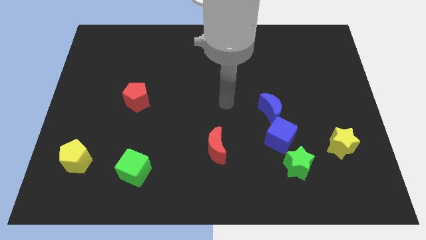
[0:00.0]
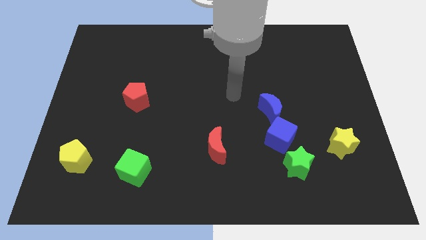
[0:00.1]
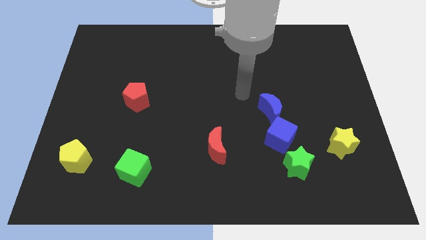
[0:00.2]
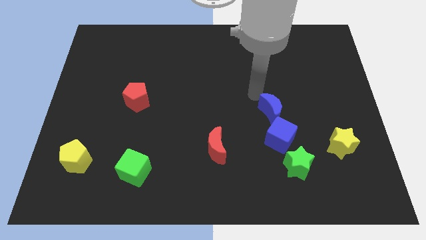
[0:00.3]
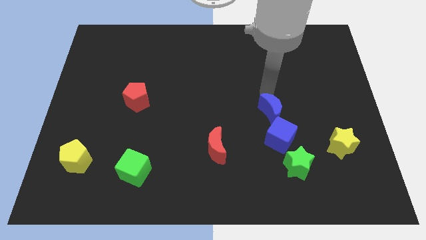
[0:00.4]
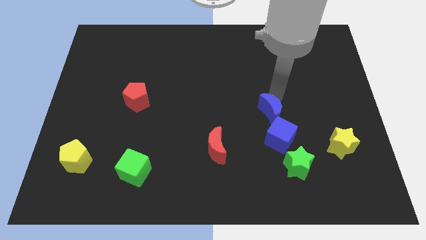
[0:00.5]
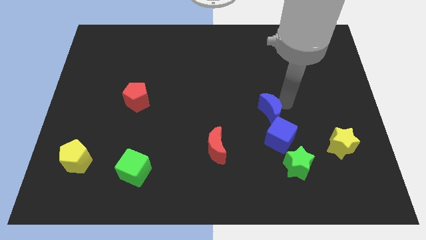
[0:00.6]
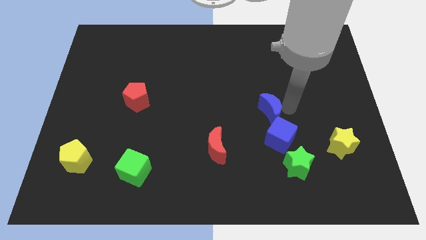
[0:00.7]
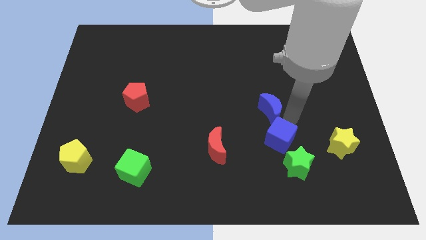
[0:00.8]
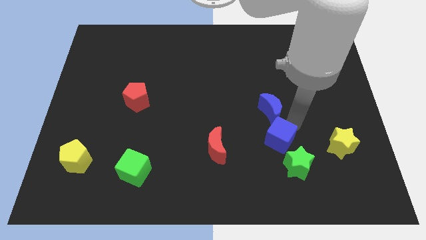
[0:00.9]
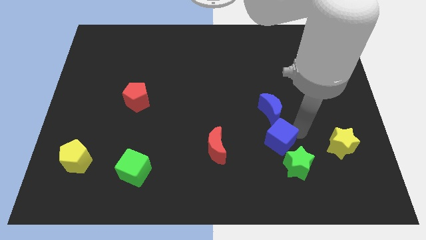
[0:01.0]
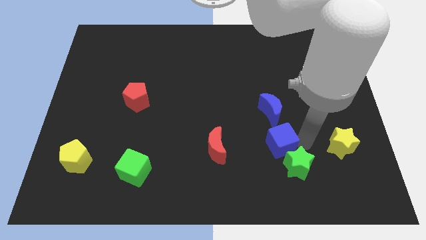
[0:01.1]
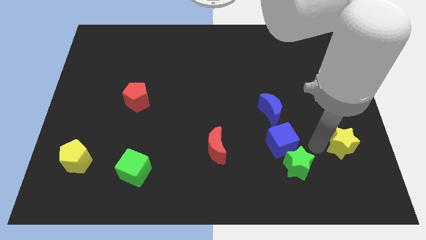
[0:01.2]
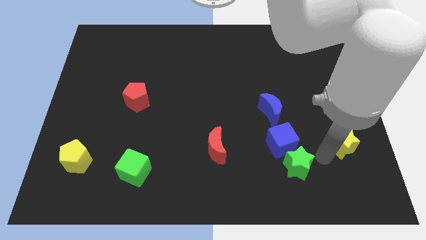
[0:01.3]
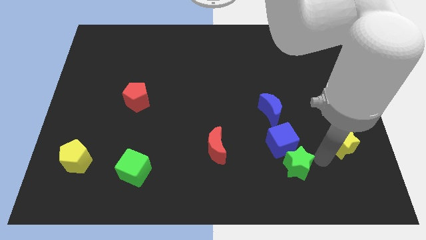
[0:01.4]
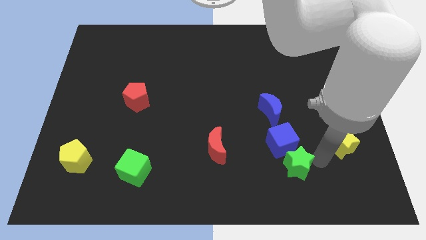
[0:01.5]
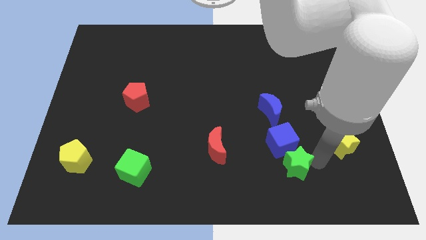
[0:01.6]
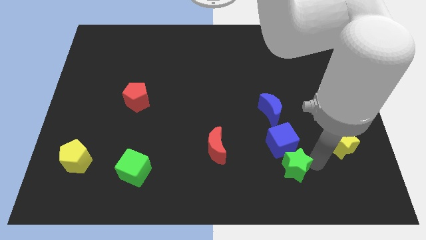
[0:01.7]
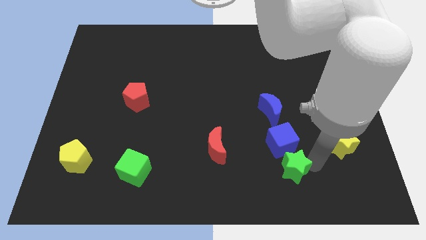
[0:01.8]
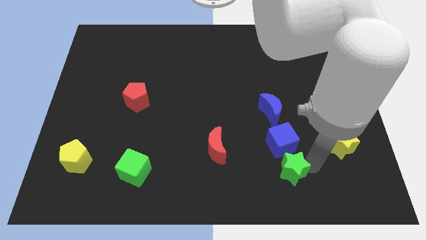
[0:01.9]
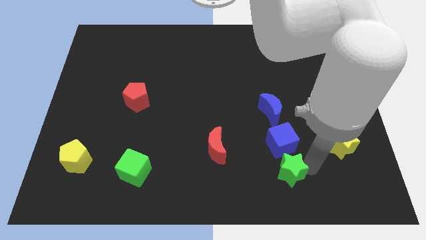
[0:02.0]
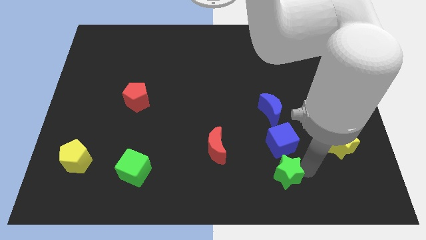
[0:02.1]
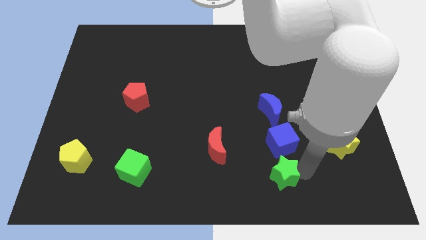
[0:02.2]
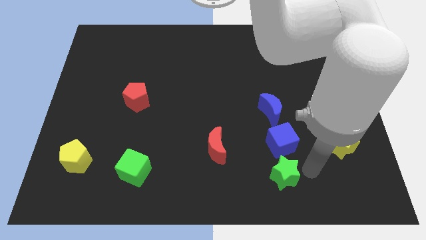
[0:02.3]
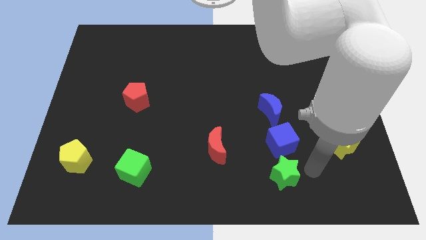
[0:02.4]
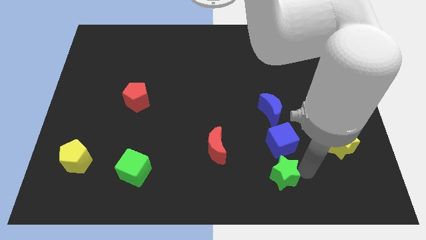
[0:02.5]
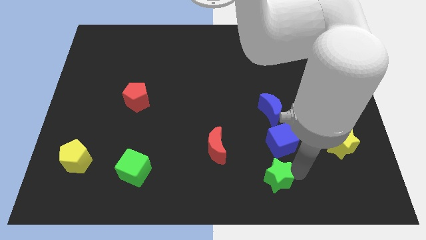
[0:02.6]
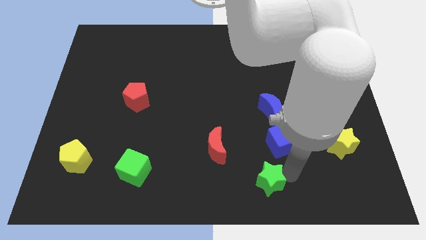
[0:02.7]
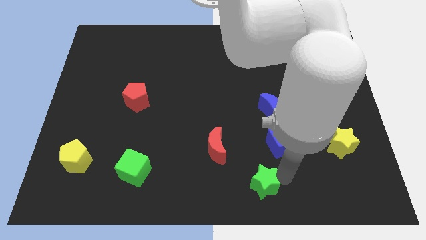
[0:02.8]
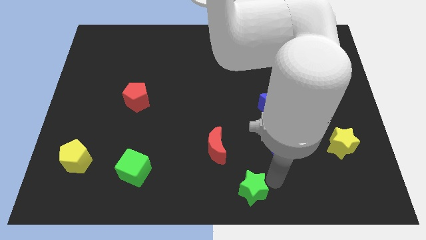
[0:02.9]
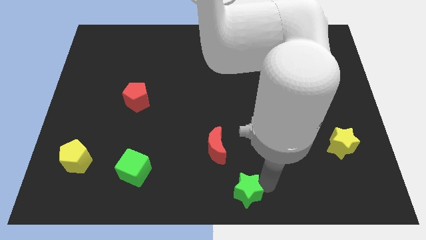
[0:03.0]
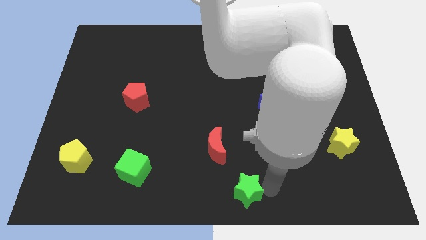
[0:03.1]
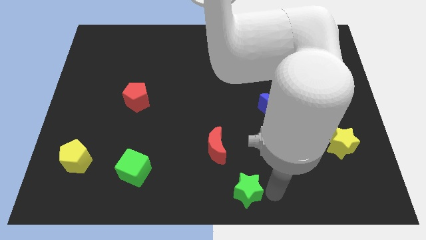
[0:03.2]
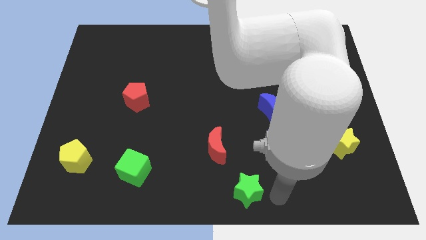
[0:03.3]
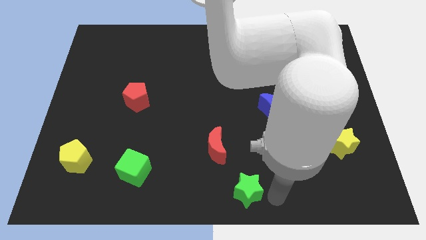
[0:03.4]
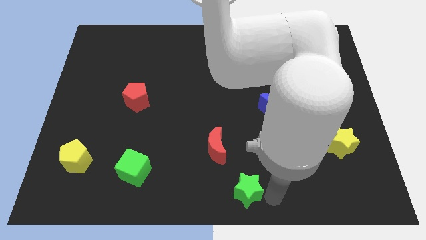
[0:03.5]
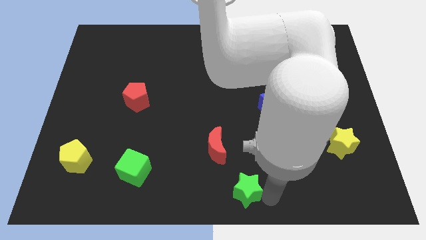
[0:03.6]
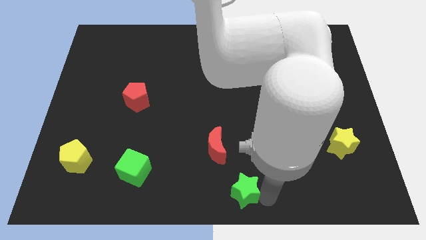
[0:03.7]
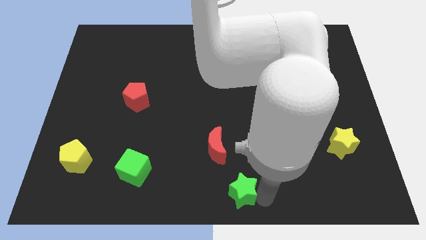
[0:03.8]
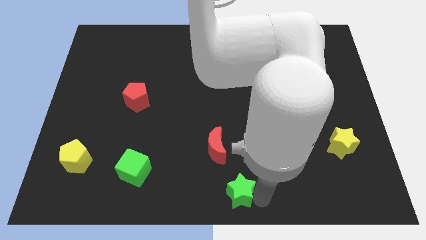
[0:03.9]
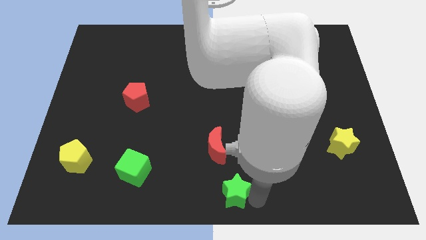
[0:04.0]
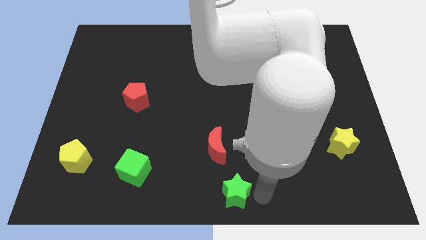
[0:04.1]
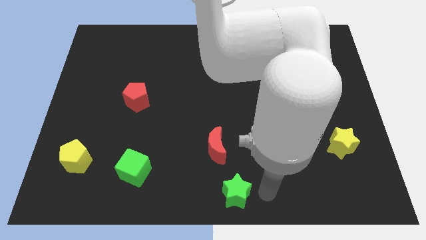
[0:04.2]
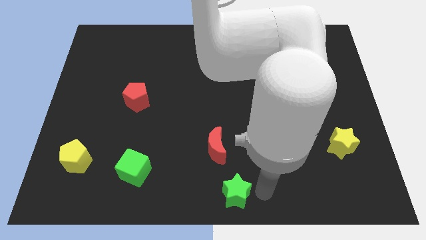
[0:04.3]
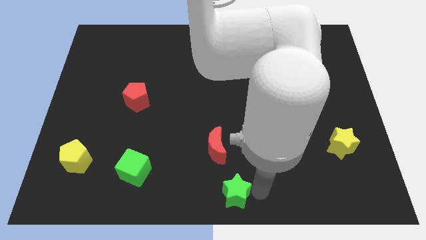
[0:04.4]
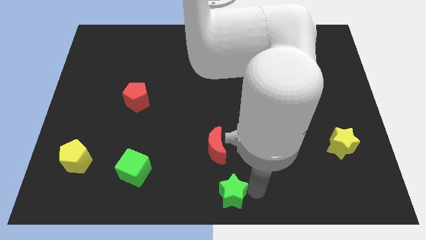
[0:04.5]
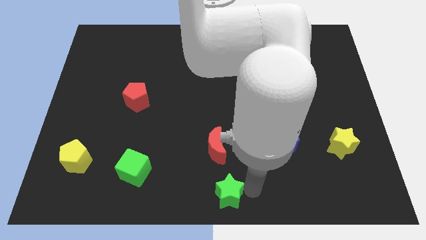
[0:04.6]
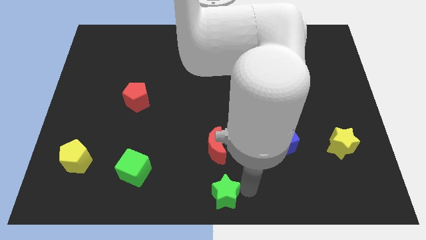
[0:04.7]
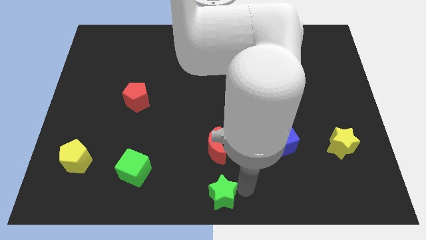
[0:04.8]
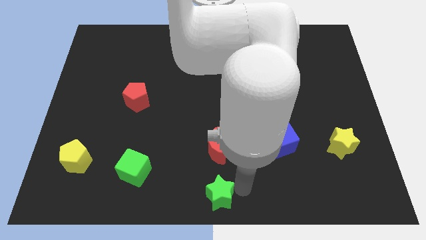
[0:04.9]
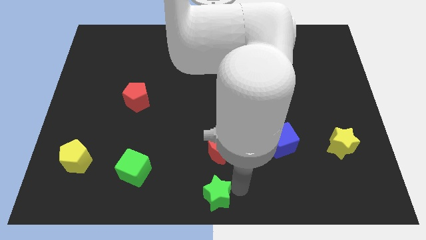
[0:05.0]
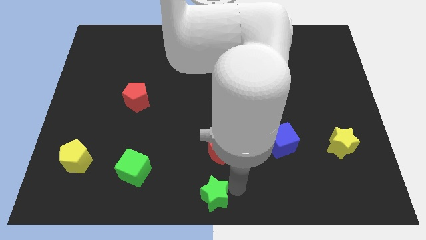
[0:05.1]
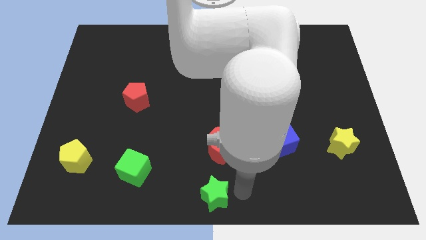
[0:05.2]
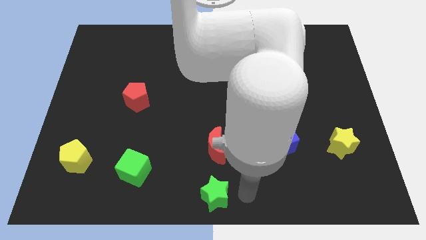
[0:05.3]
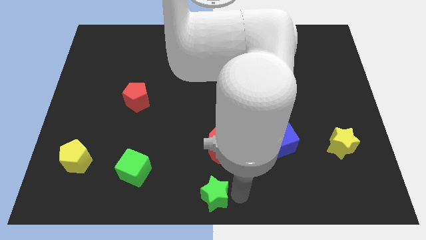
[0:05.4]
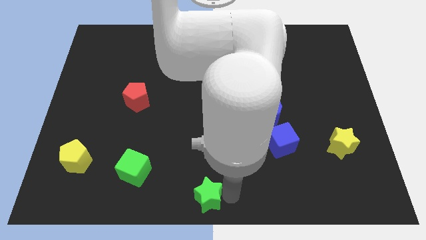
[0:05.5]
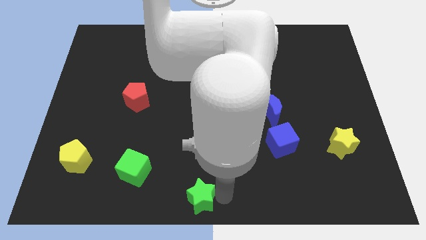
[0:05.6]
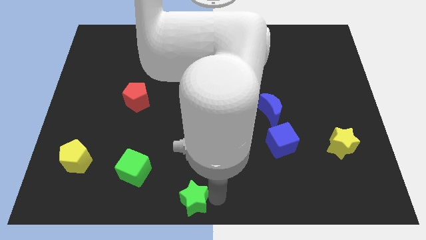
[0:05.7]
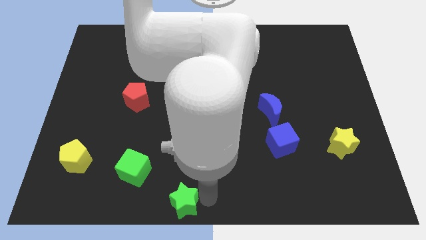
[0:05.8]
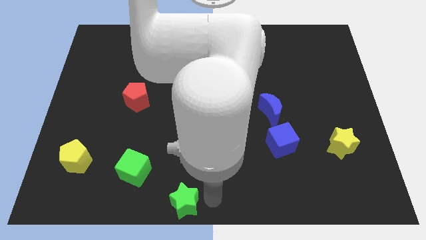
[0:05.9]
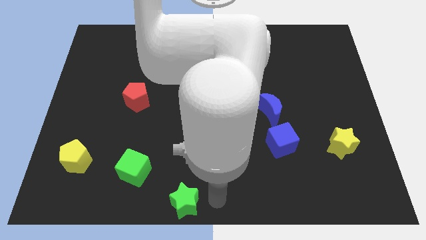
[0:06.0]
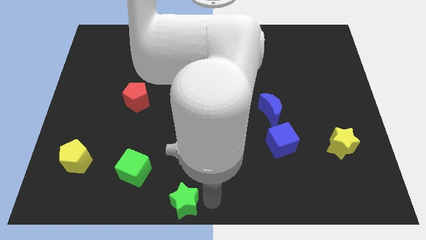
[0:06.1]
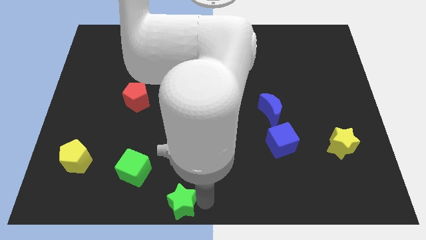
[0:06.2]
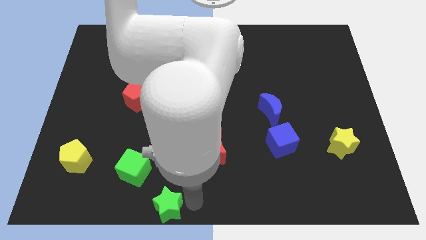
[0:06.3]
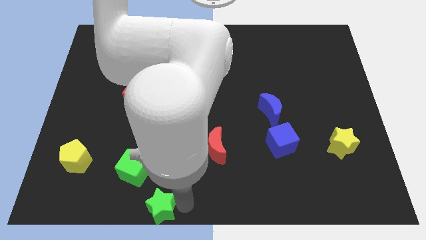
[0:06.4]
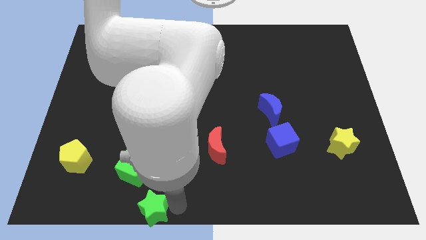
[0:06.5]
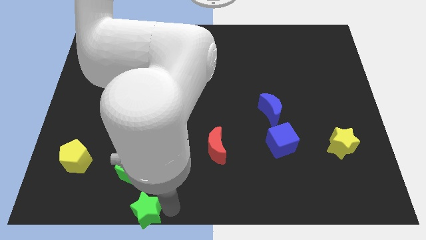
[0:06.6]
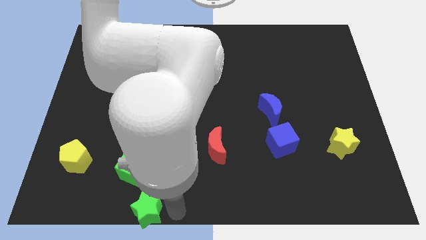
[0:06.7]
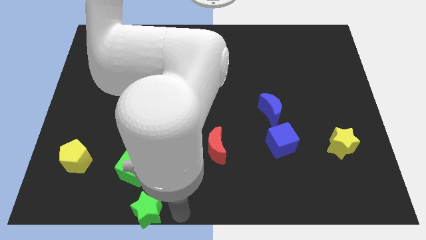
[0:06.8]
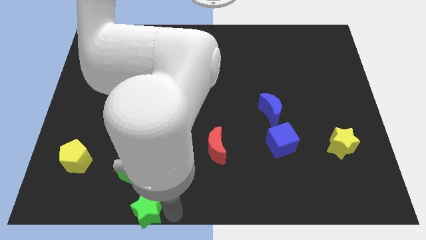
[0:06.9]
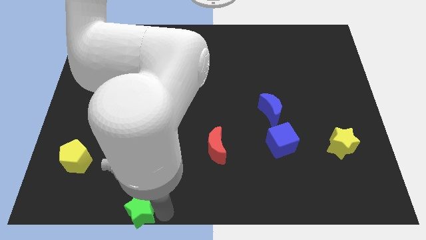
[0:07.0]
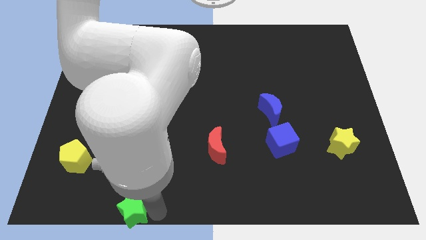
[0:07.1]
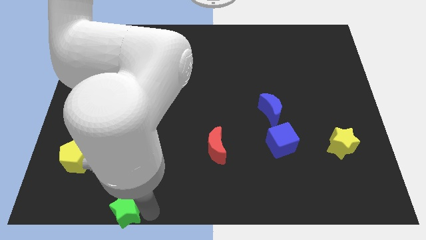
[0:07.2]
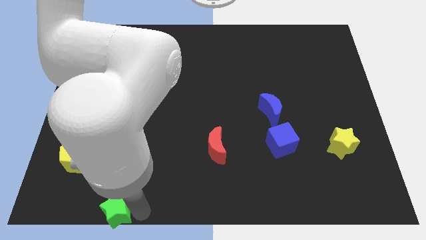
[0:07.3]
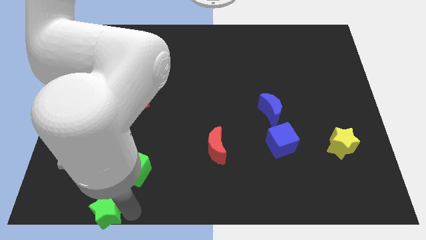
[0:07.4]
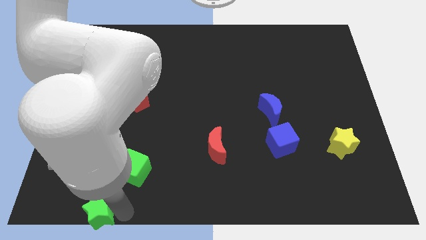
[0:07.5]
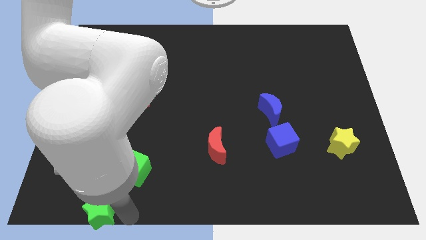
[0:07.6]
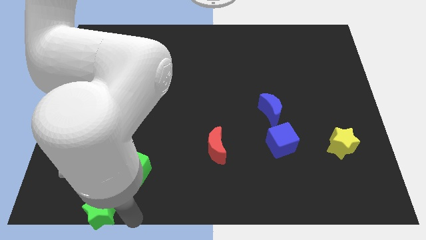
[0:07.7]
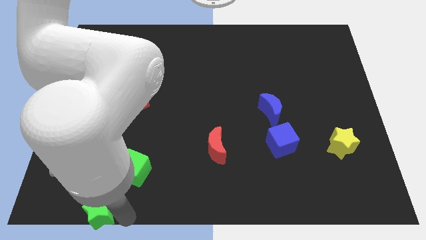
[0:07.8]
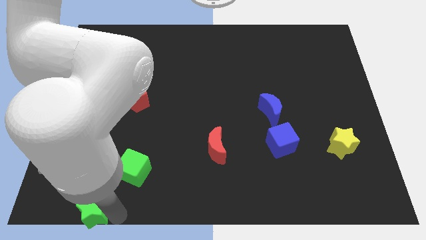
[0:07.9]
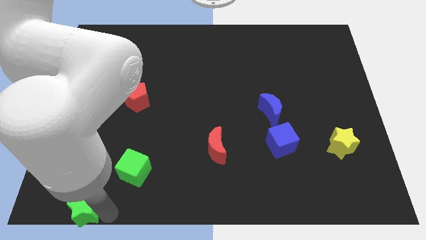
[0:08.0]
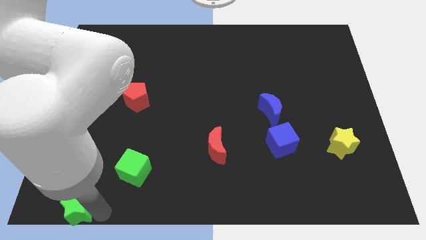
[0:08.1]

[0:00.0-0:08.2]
slide the green star to the lower left corner
